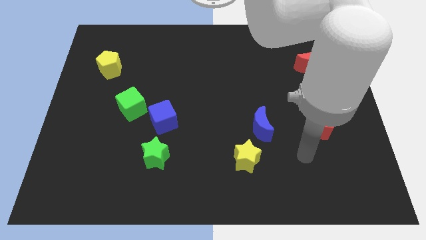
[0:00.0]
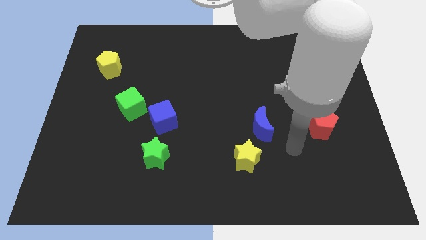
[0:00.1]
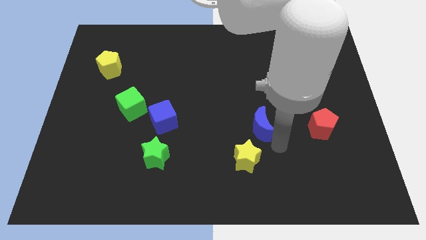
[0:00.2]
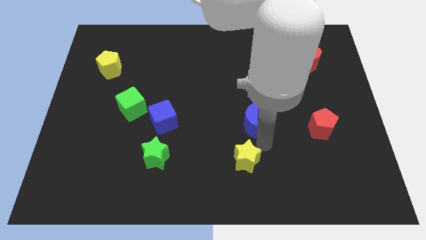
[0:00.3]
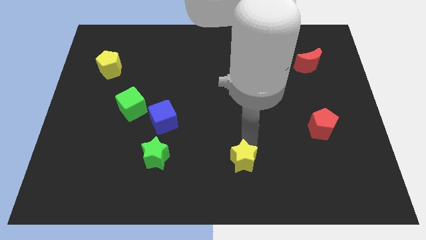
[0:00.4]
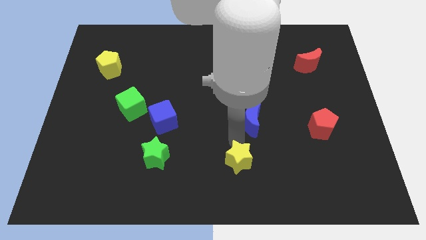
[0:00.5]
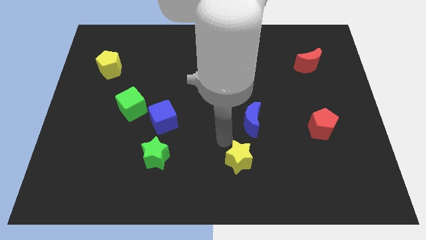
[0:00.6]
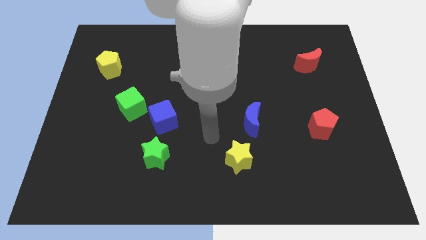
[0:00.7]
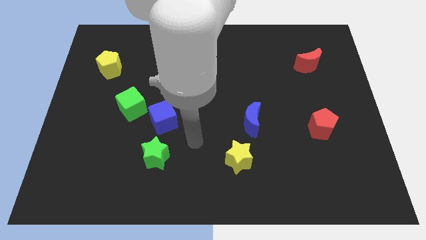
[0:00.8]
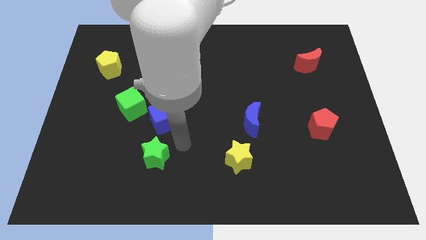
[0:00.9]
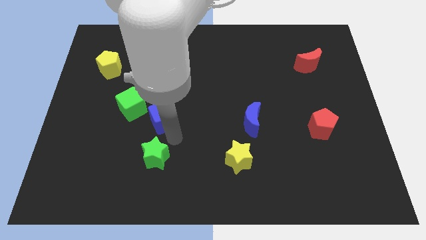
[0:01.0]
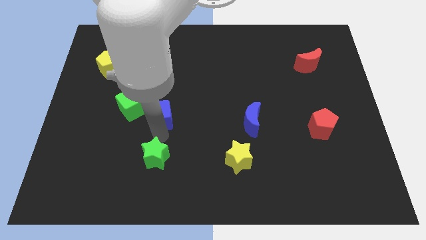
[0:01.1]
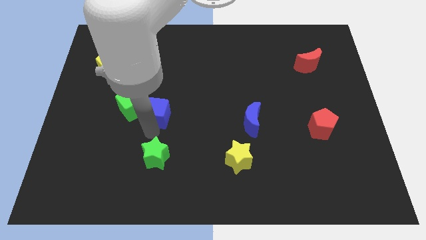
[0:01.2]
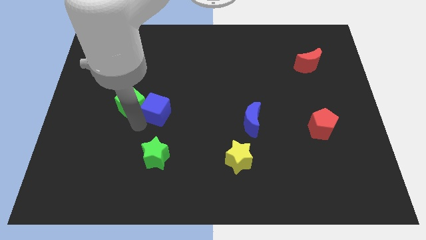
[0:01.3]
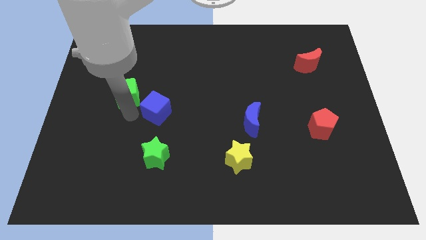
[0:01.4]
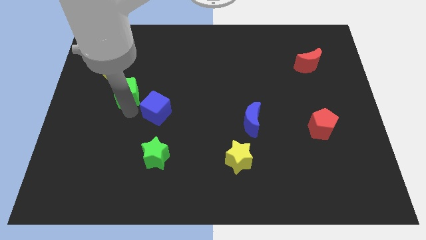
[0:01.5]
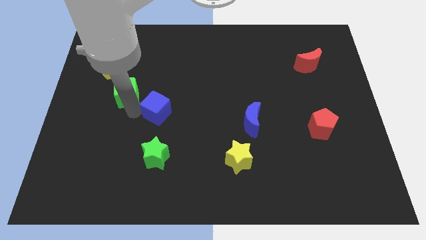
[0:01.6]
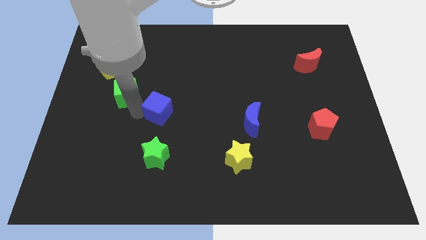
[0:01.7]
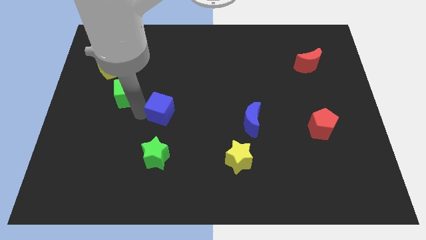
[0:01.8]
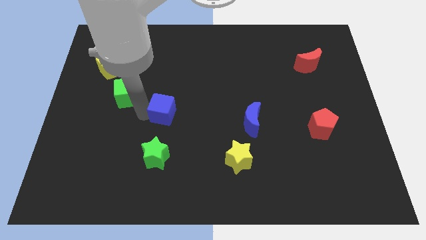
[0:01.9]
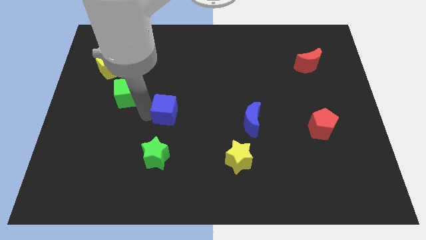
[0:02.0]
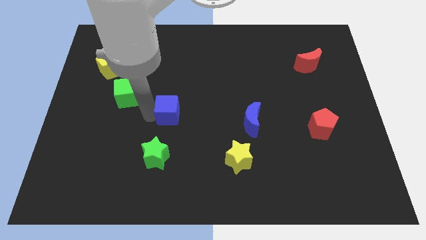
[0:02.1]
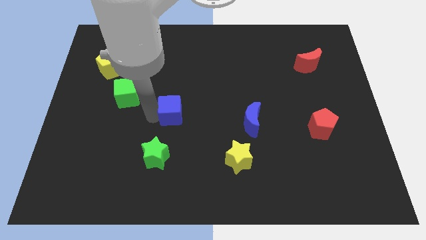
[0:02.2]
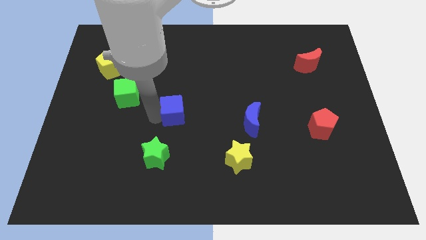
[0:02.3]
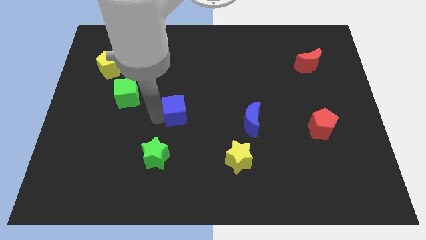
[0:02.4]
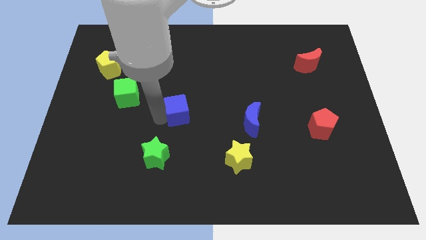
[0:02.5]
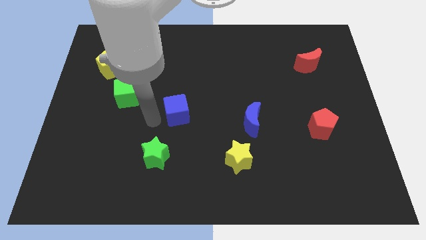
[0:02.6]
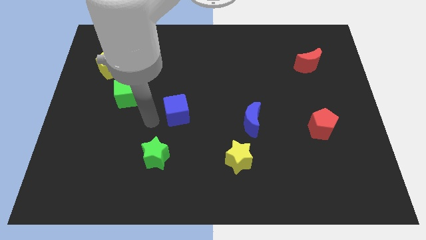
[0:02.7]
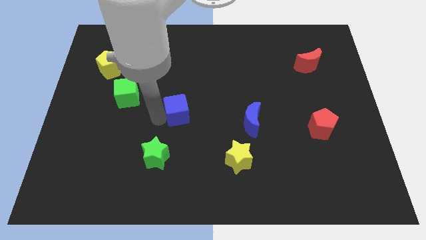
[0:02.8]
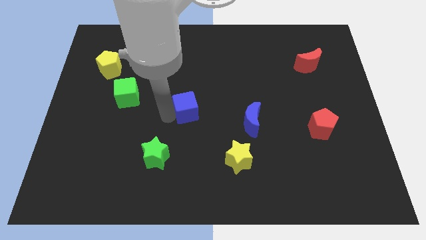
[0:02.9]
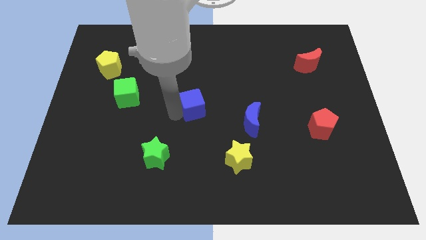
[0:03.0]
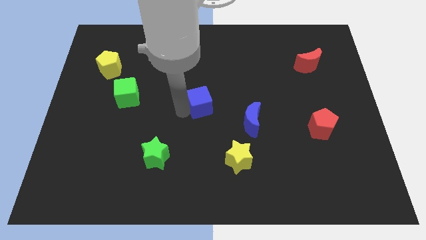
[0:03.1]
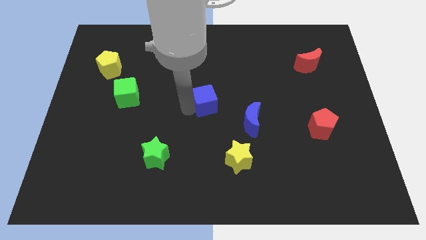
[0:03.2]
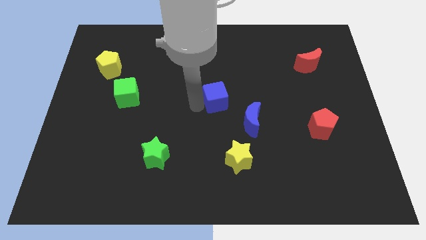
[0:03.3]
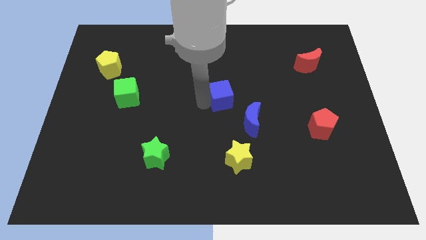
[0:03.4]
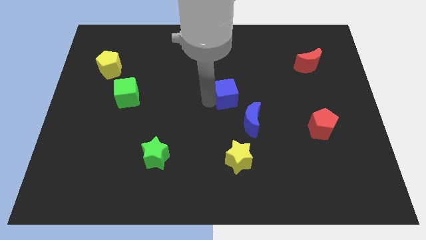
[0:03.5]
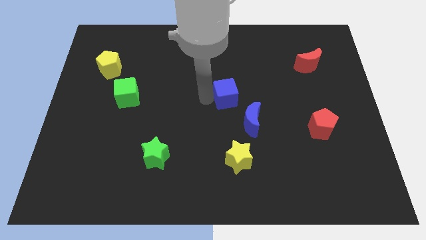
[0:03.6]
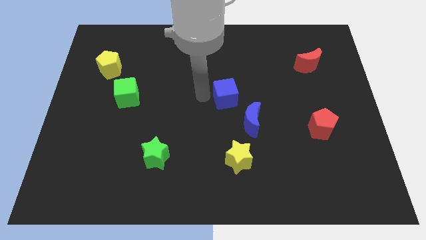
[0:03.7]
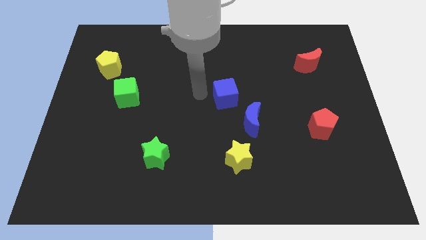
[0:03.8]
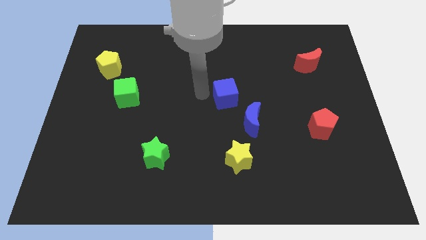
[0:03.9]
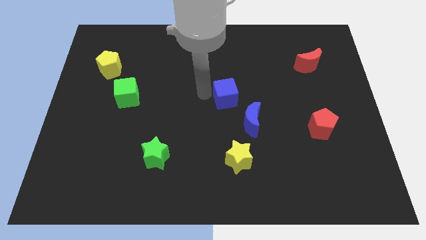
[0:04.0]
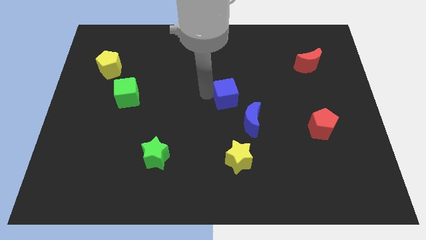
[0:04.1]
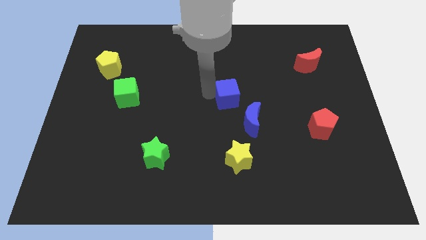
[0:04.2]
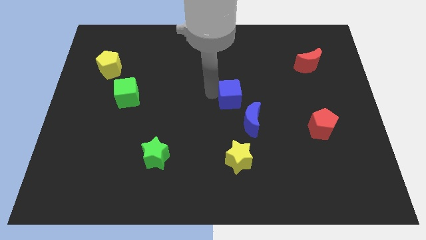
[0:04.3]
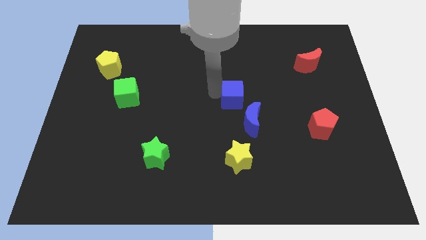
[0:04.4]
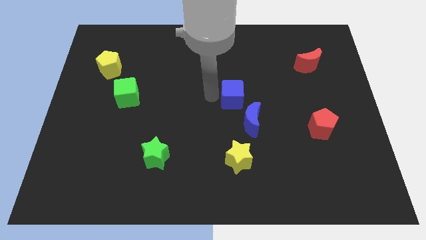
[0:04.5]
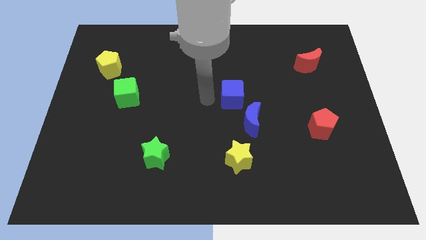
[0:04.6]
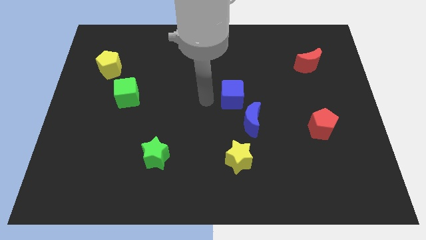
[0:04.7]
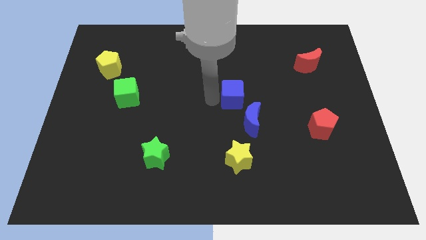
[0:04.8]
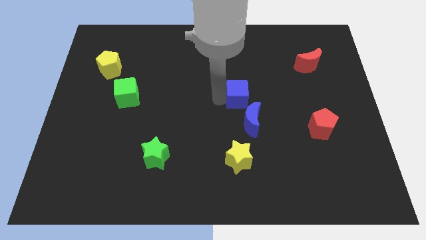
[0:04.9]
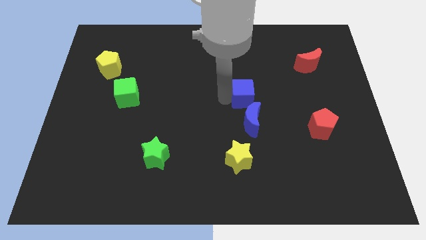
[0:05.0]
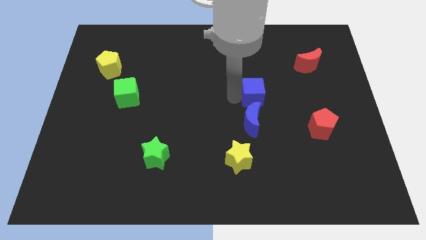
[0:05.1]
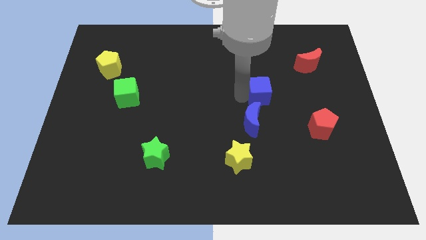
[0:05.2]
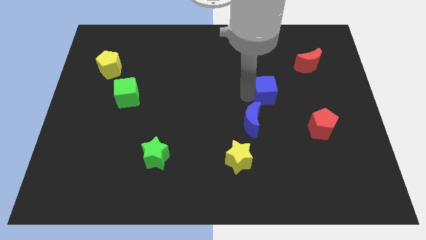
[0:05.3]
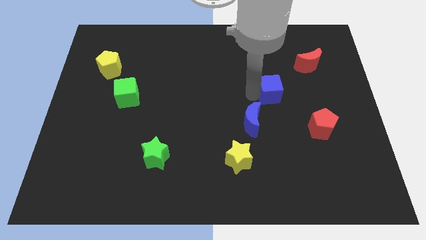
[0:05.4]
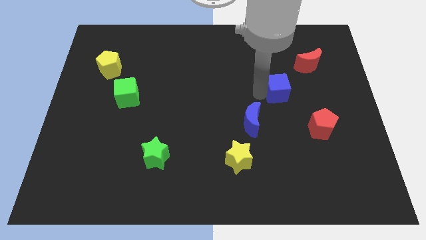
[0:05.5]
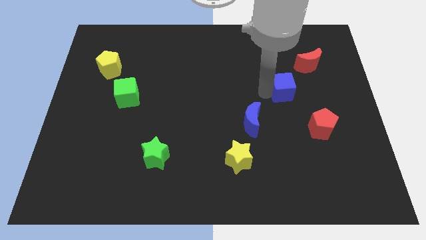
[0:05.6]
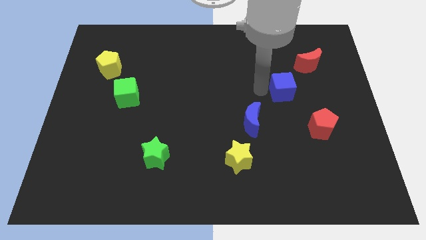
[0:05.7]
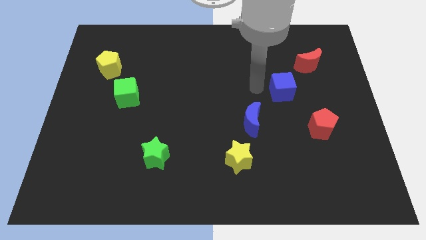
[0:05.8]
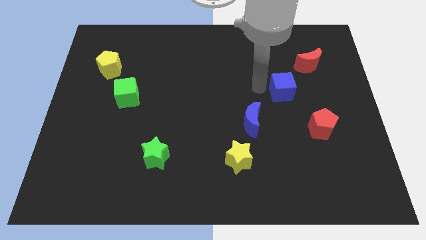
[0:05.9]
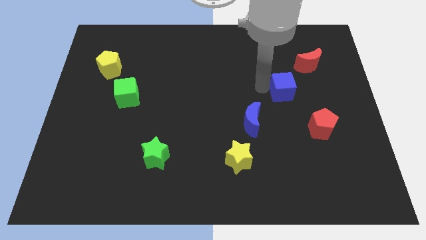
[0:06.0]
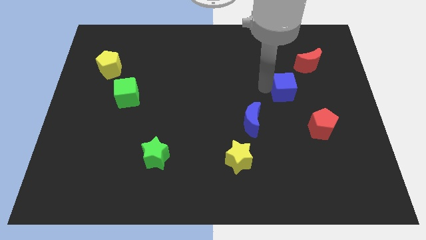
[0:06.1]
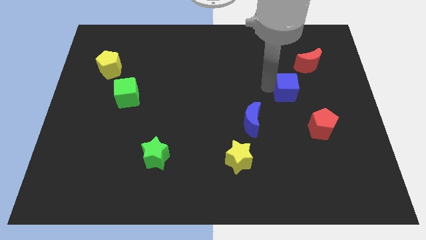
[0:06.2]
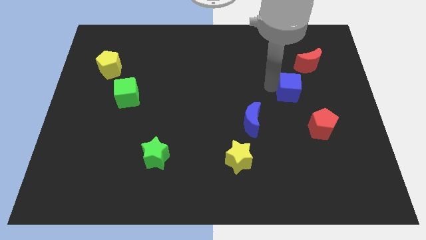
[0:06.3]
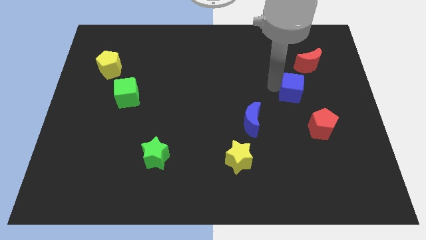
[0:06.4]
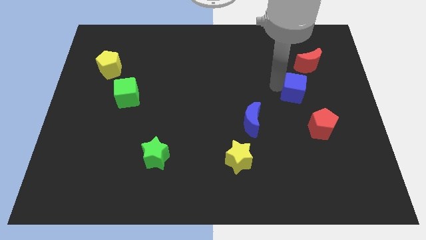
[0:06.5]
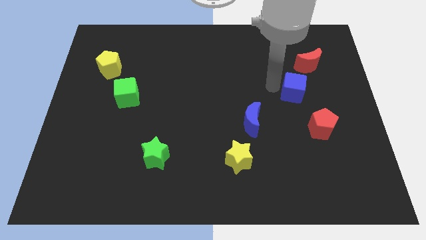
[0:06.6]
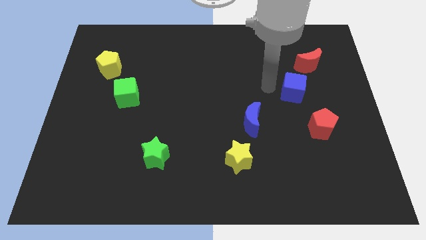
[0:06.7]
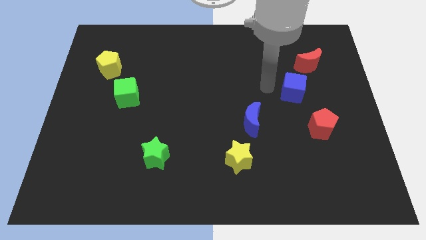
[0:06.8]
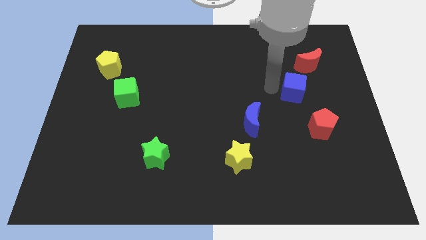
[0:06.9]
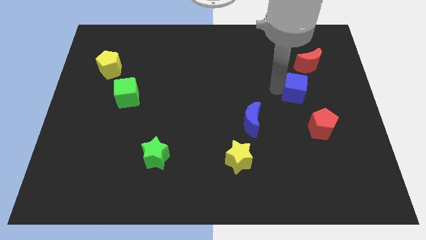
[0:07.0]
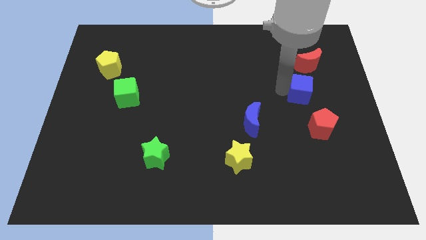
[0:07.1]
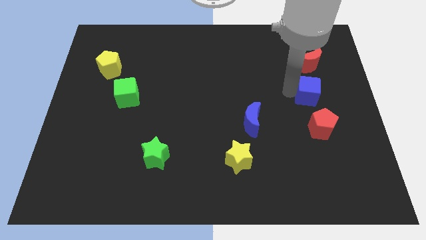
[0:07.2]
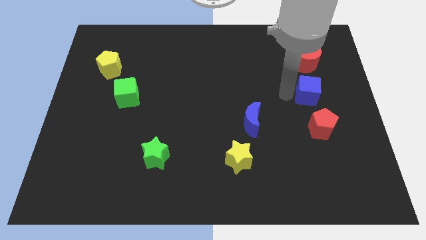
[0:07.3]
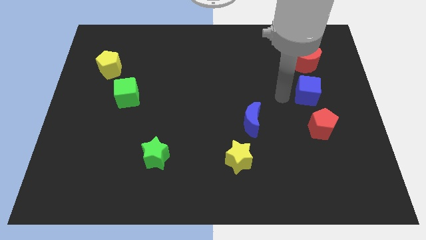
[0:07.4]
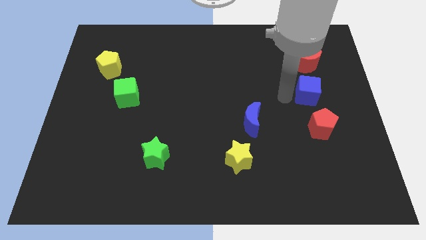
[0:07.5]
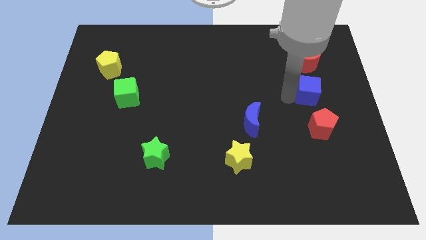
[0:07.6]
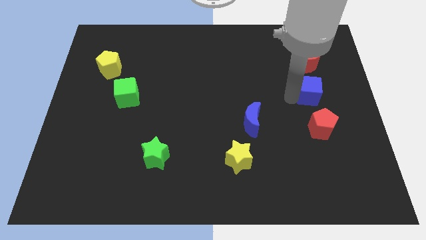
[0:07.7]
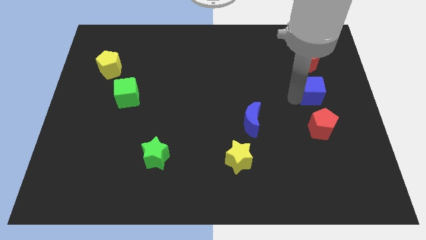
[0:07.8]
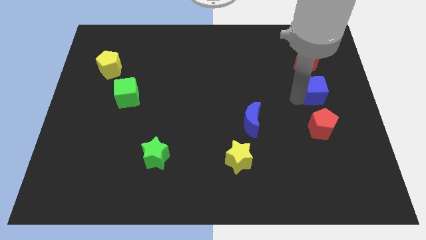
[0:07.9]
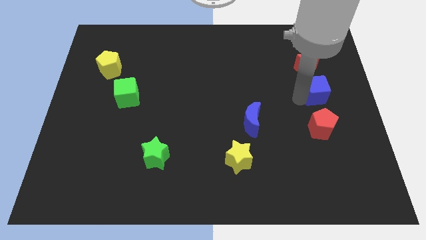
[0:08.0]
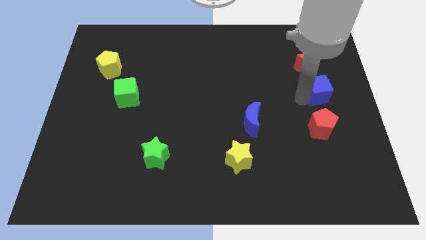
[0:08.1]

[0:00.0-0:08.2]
move the blue cube to the right side
